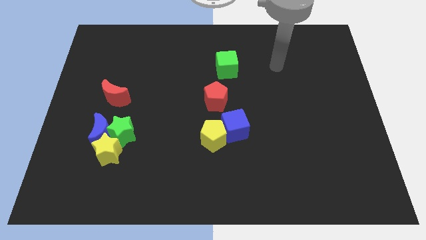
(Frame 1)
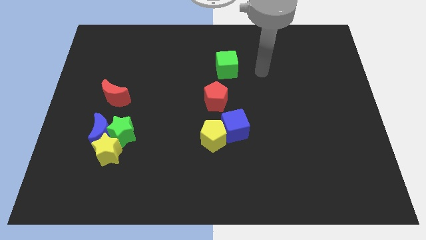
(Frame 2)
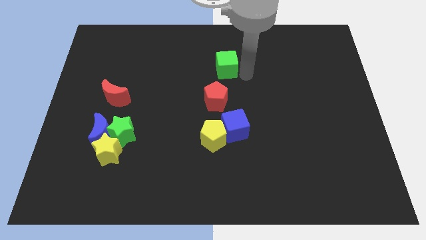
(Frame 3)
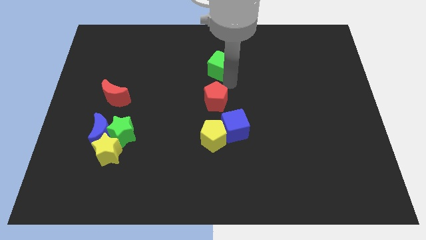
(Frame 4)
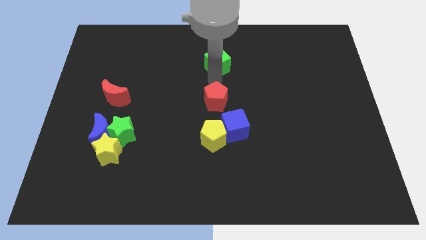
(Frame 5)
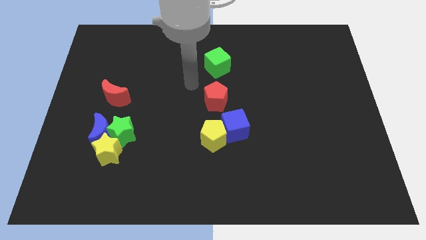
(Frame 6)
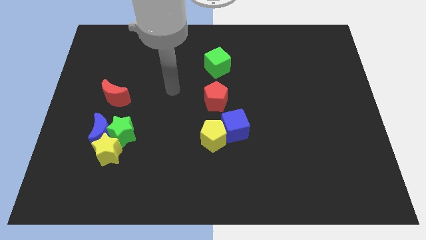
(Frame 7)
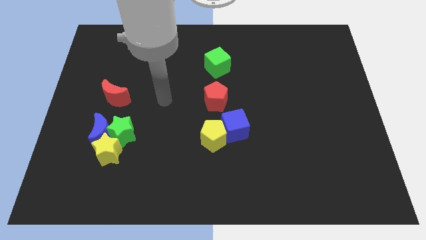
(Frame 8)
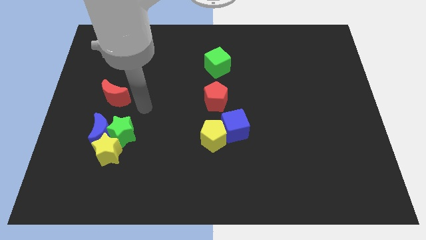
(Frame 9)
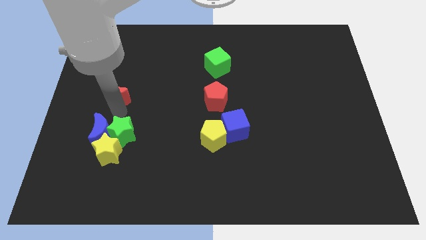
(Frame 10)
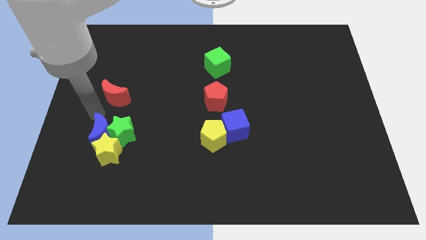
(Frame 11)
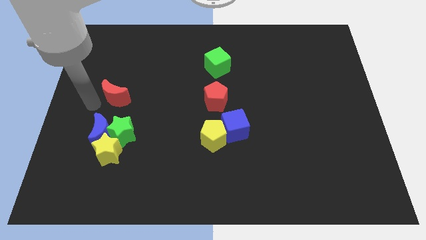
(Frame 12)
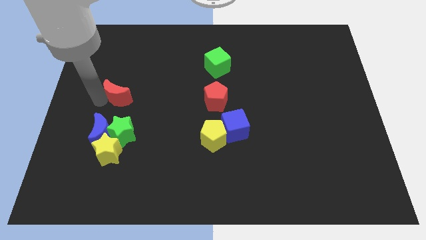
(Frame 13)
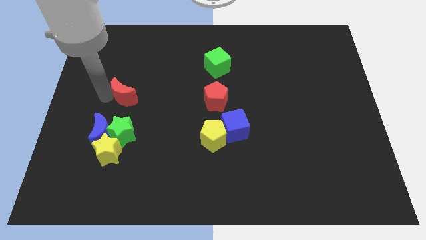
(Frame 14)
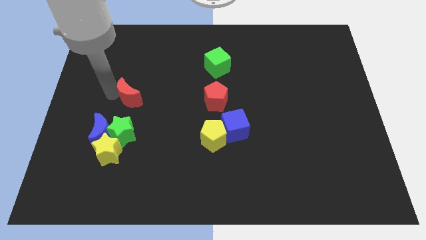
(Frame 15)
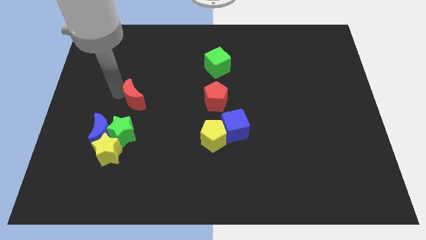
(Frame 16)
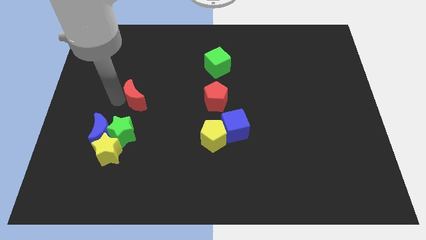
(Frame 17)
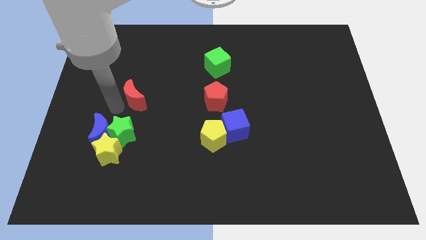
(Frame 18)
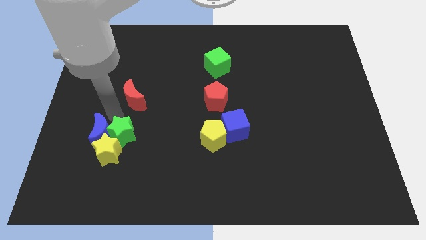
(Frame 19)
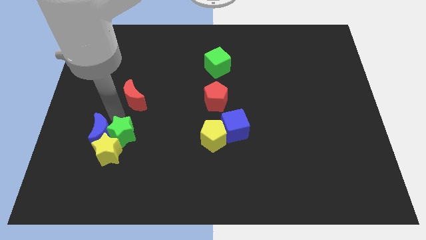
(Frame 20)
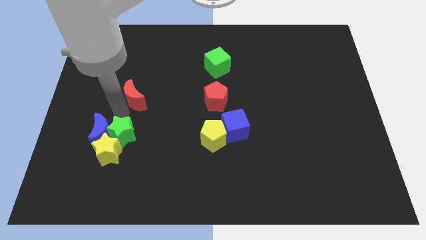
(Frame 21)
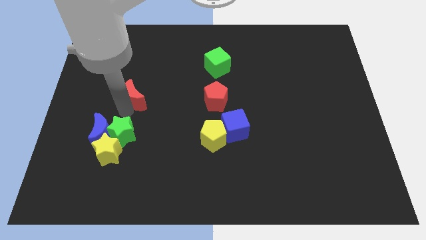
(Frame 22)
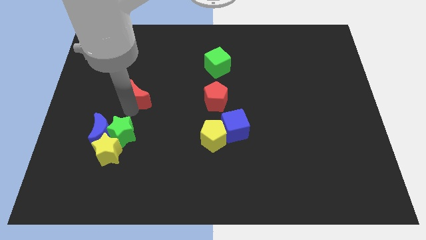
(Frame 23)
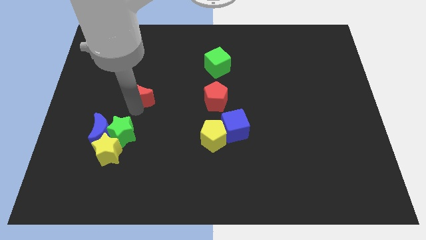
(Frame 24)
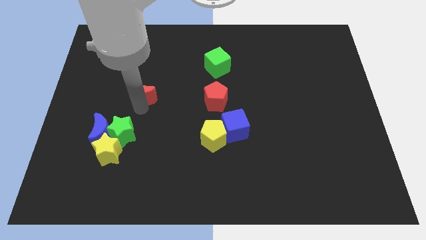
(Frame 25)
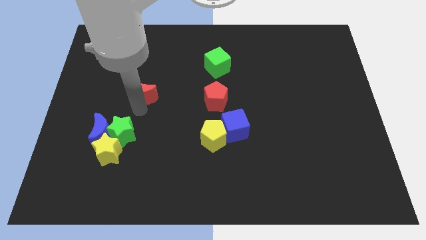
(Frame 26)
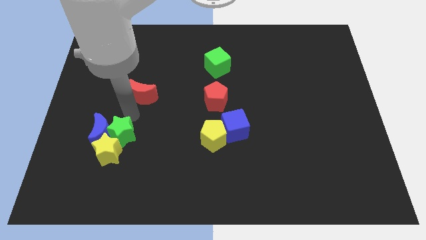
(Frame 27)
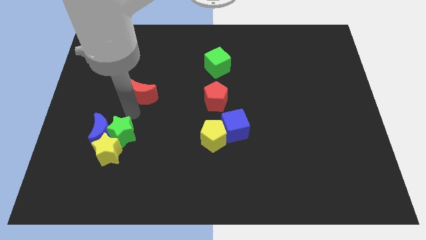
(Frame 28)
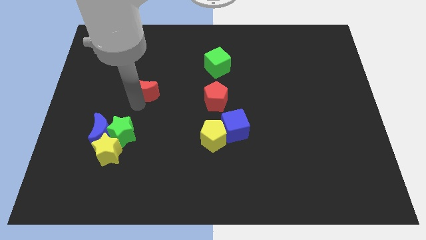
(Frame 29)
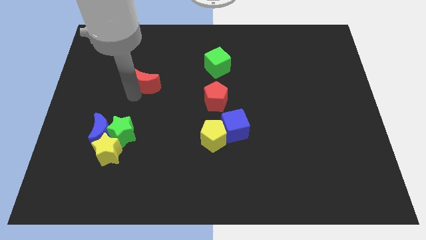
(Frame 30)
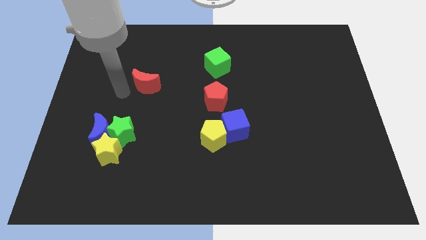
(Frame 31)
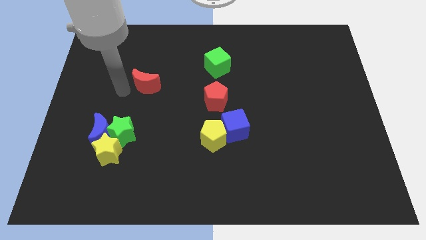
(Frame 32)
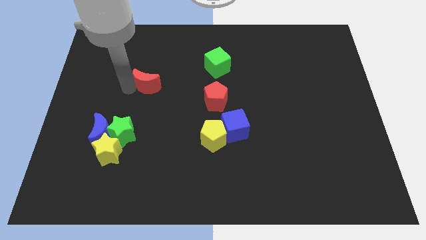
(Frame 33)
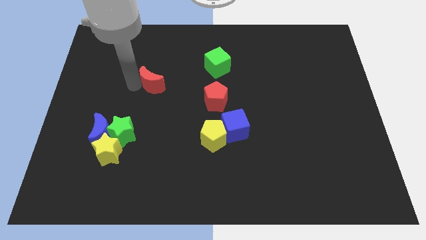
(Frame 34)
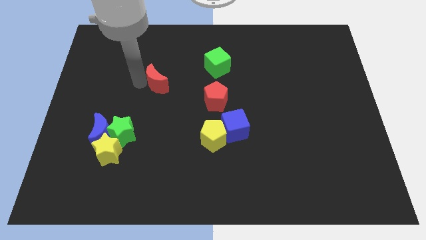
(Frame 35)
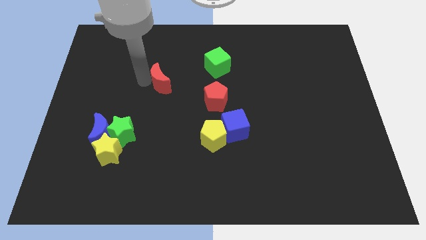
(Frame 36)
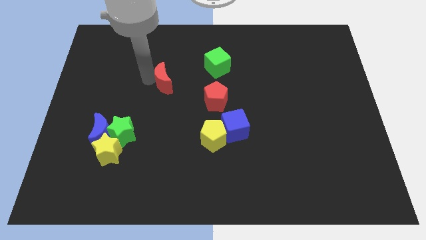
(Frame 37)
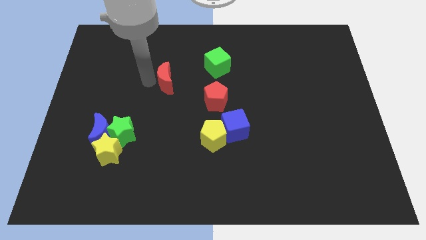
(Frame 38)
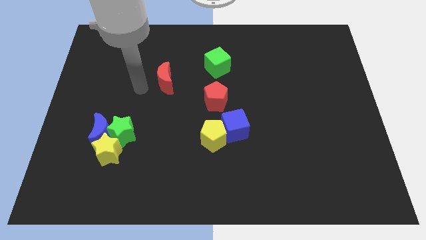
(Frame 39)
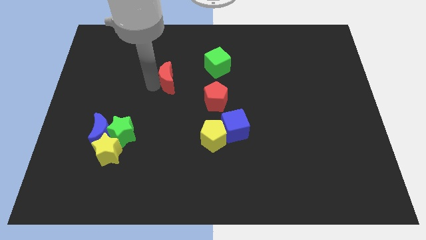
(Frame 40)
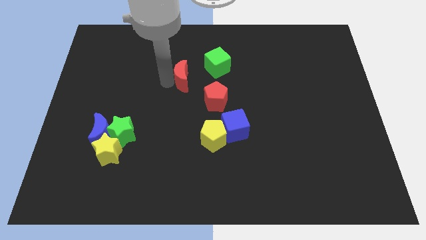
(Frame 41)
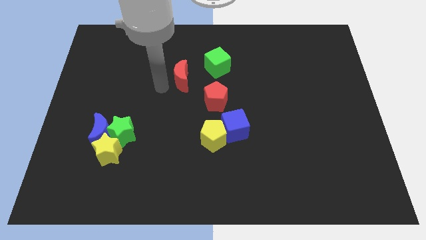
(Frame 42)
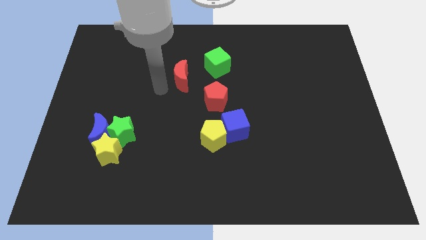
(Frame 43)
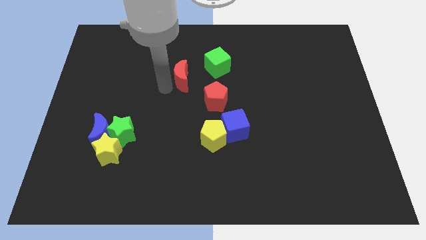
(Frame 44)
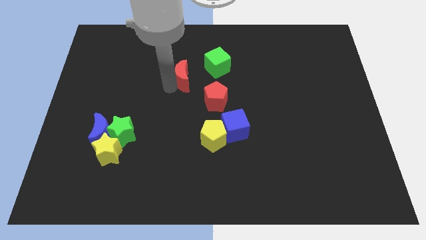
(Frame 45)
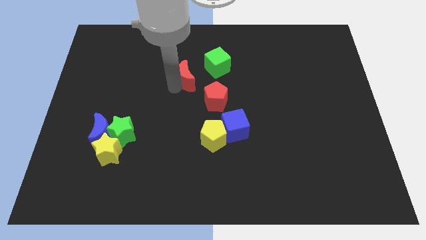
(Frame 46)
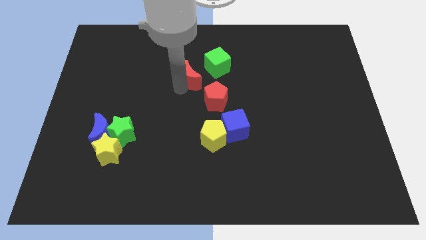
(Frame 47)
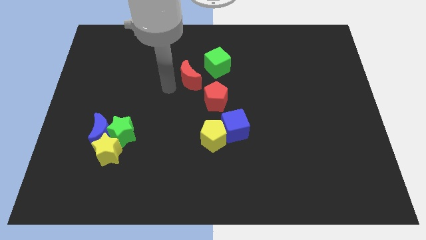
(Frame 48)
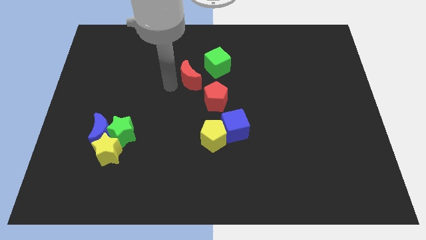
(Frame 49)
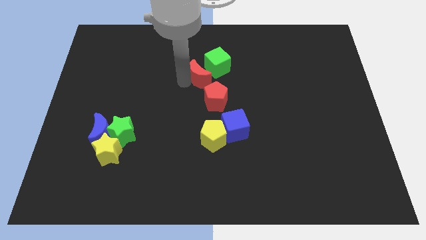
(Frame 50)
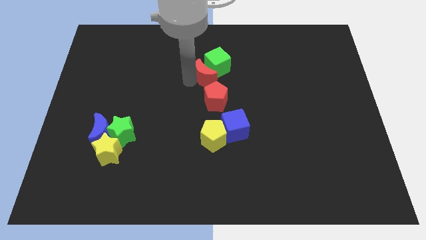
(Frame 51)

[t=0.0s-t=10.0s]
push the red moon to the green cube

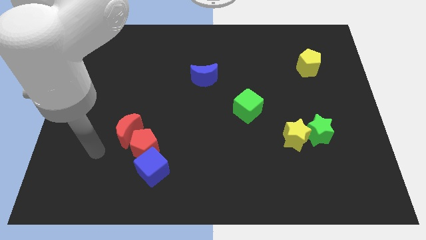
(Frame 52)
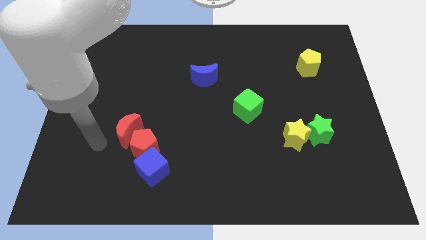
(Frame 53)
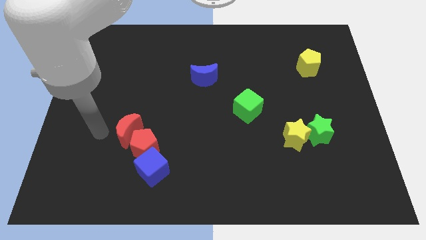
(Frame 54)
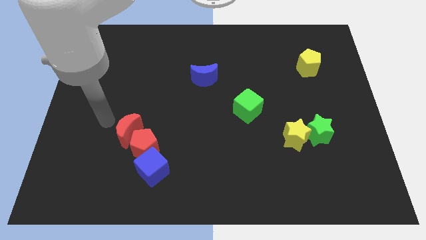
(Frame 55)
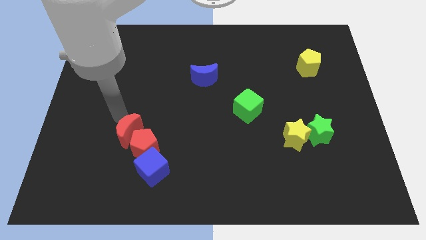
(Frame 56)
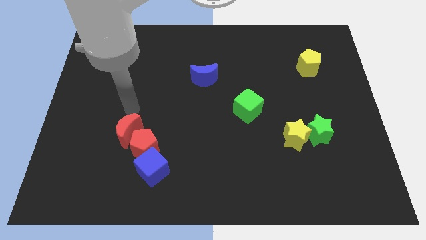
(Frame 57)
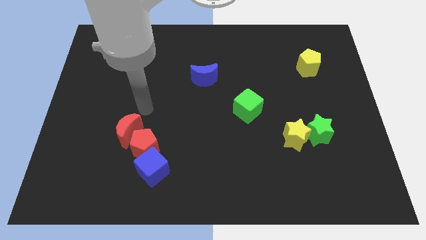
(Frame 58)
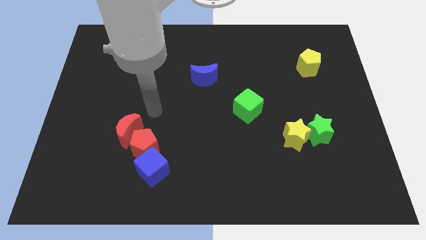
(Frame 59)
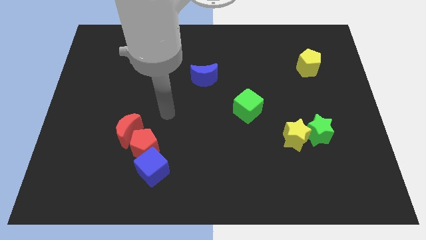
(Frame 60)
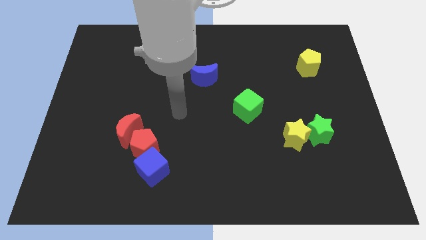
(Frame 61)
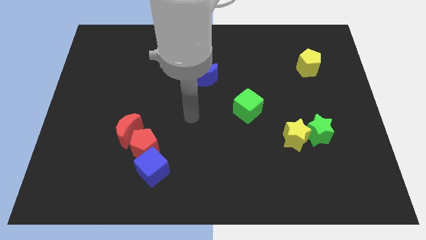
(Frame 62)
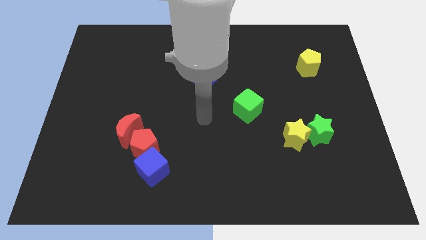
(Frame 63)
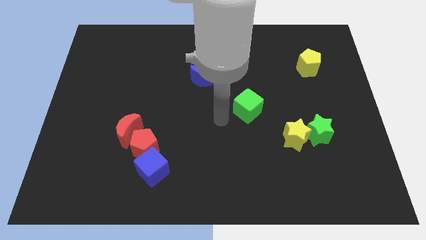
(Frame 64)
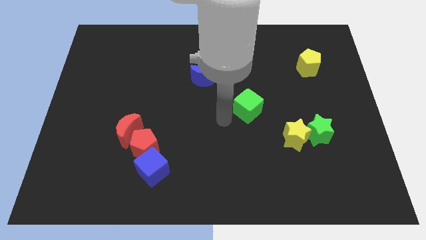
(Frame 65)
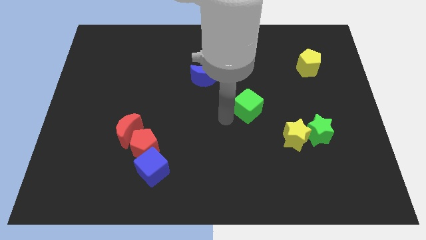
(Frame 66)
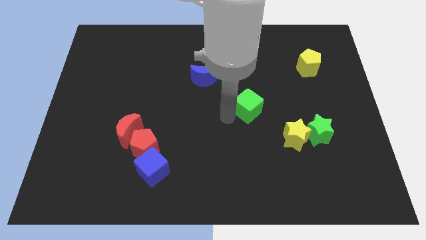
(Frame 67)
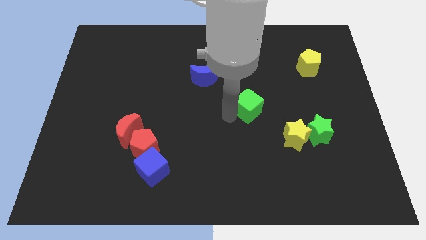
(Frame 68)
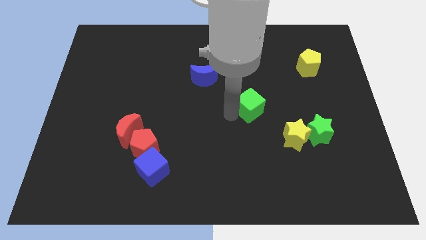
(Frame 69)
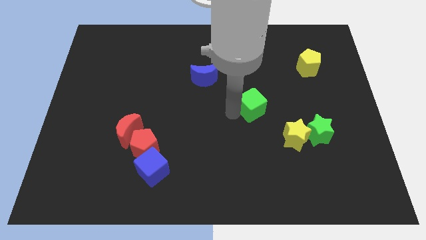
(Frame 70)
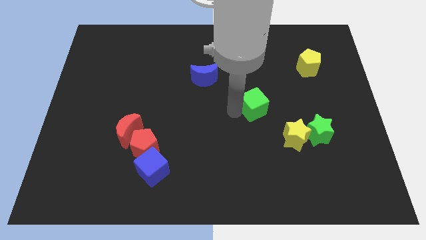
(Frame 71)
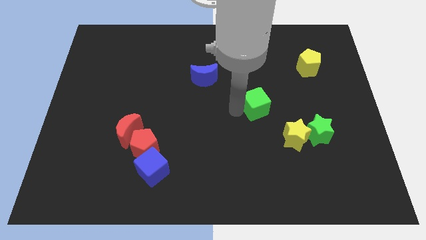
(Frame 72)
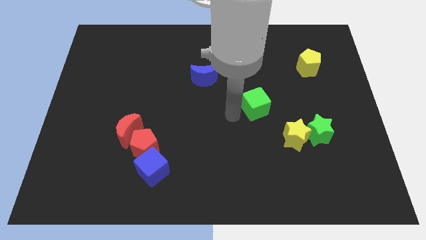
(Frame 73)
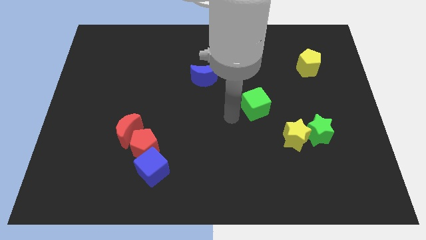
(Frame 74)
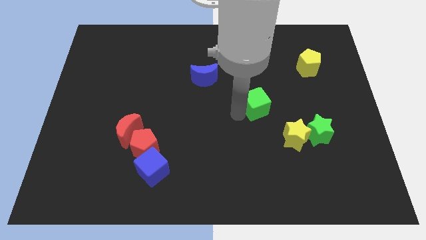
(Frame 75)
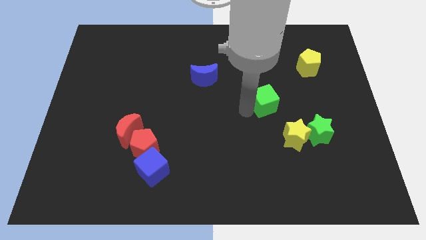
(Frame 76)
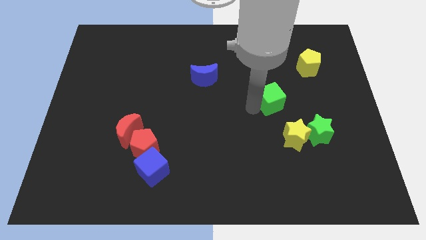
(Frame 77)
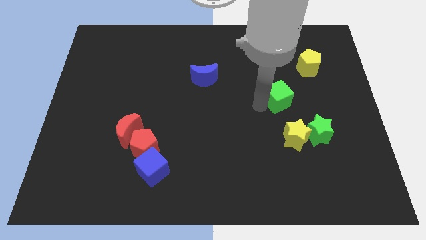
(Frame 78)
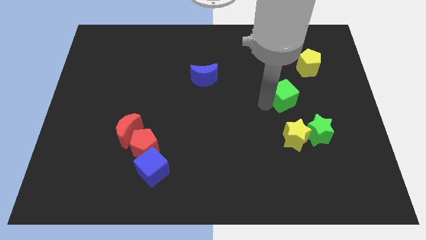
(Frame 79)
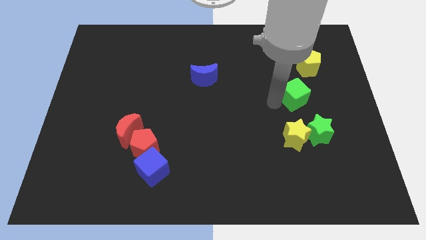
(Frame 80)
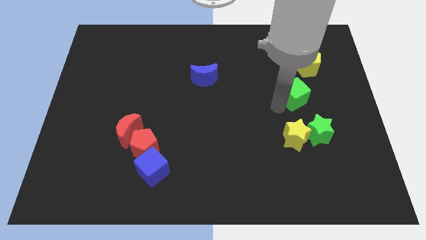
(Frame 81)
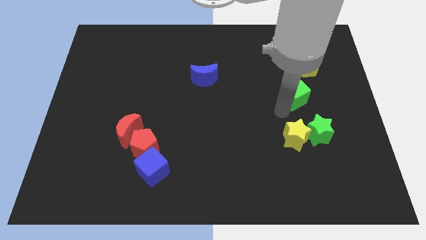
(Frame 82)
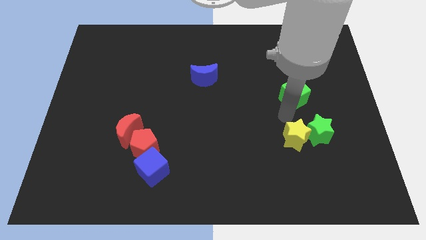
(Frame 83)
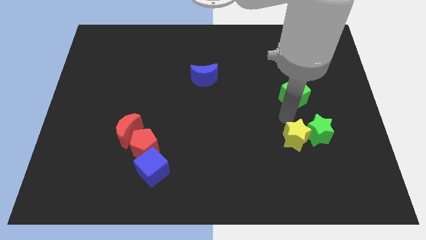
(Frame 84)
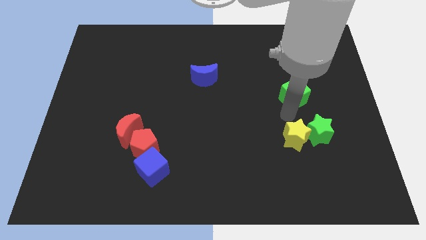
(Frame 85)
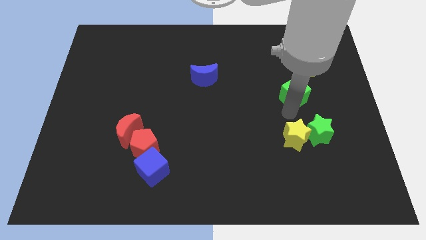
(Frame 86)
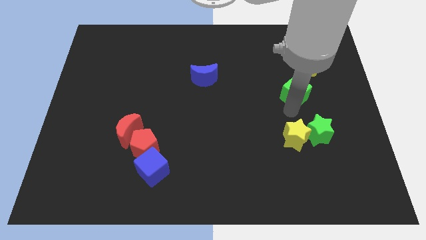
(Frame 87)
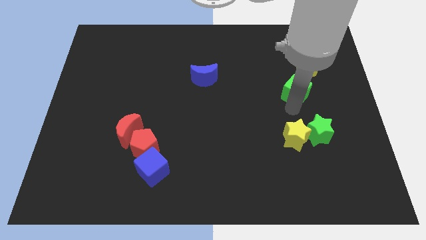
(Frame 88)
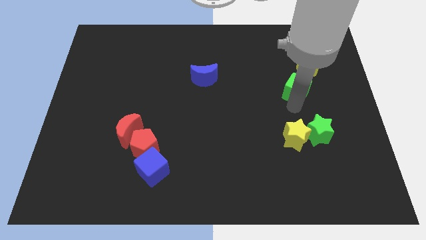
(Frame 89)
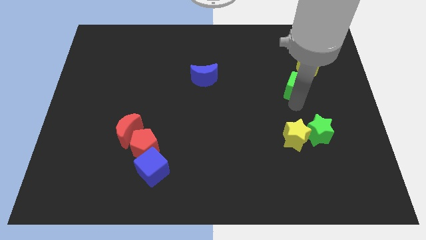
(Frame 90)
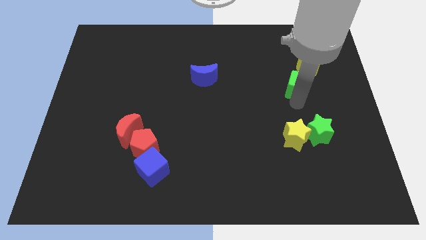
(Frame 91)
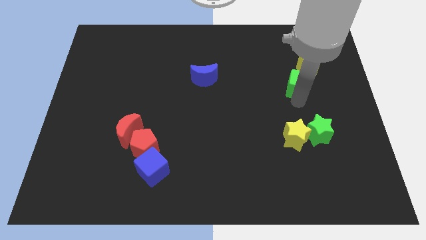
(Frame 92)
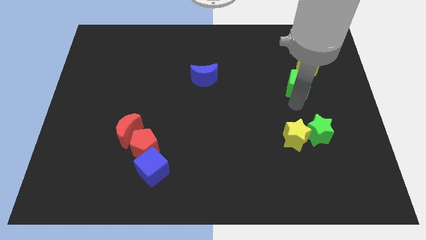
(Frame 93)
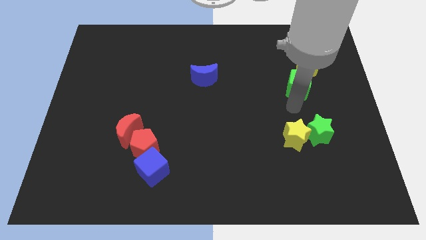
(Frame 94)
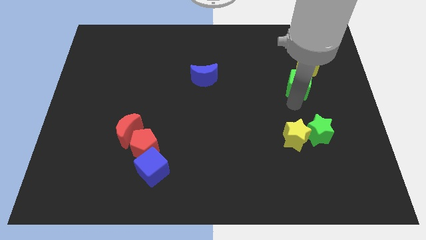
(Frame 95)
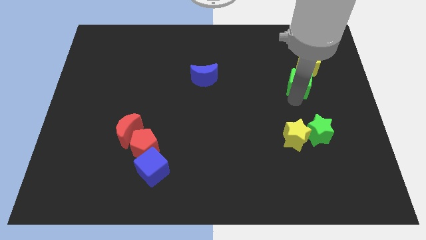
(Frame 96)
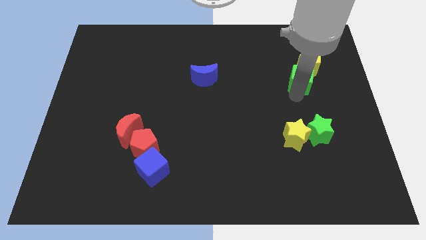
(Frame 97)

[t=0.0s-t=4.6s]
push the green cube close to the yellow pentagon
